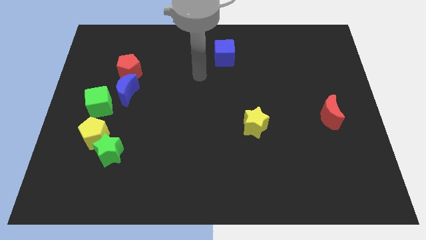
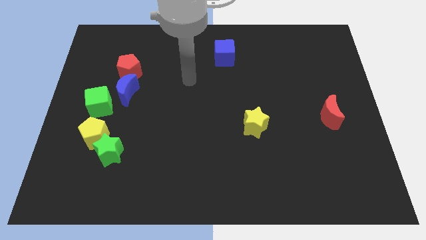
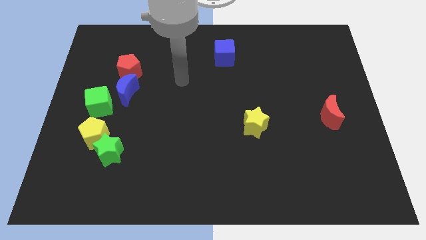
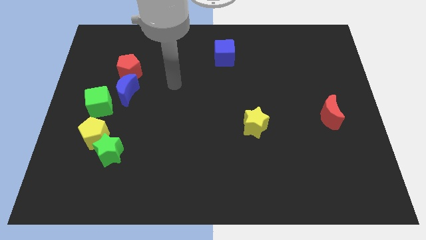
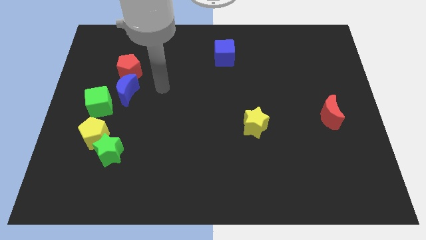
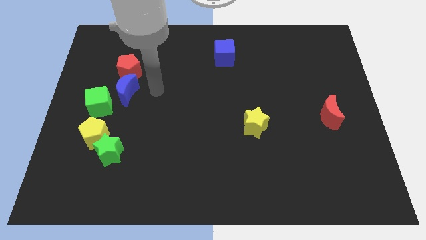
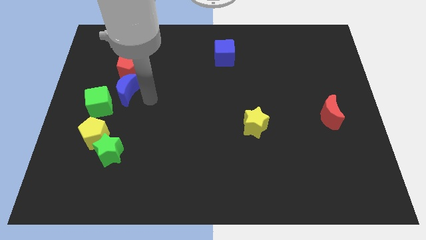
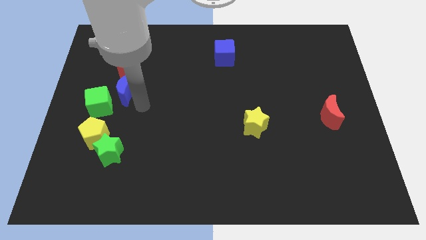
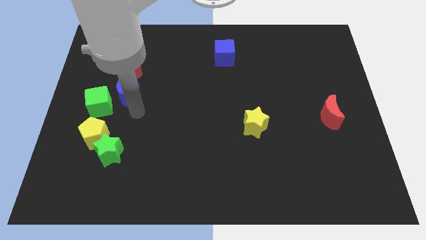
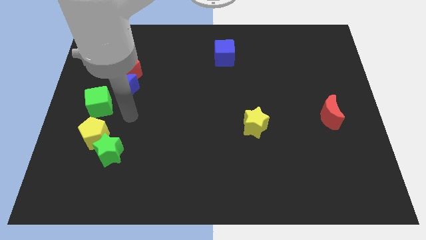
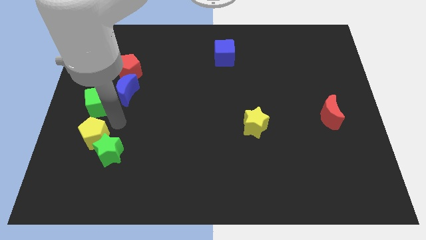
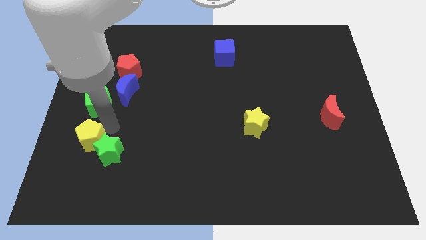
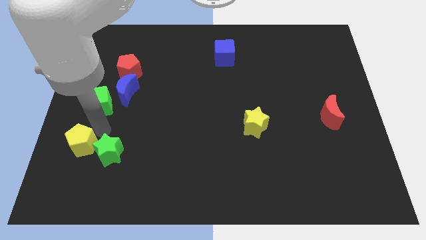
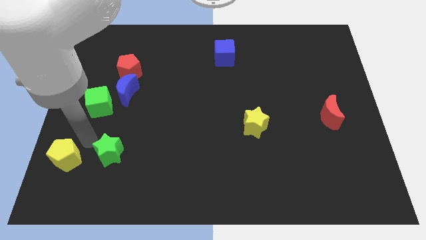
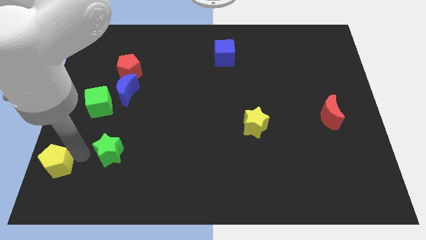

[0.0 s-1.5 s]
move the green star away from the yellow pentagon

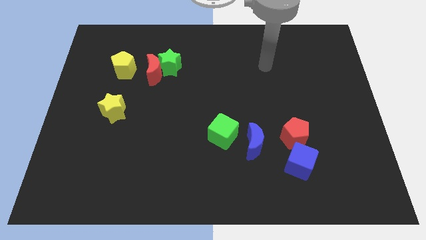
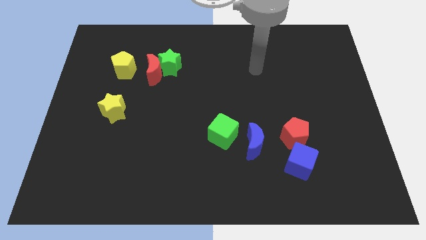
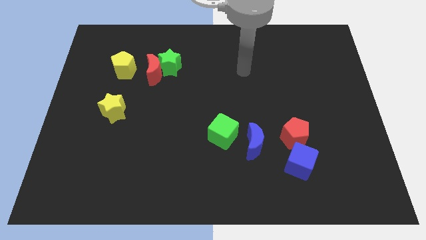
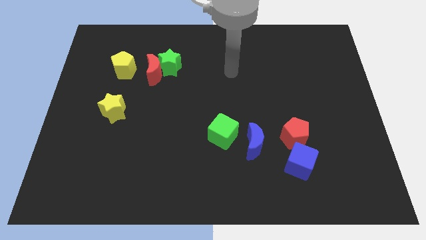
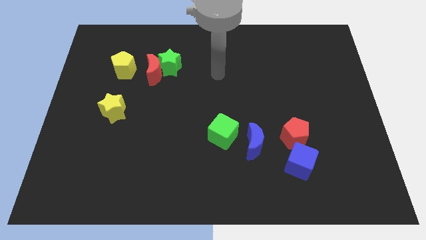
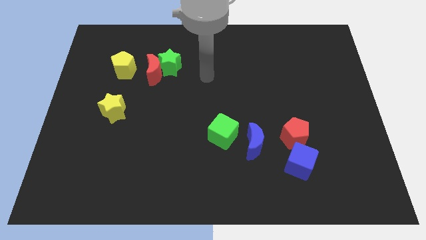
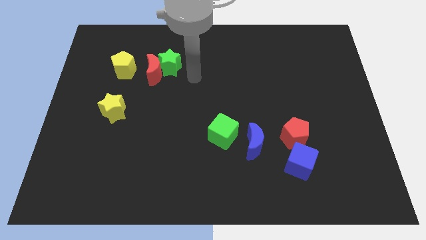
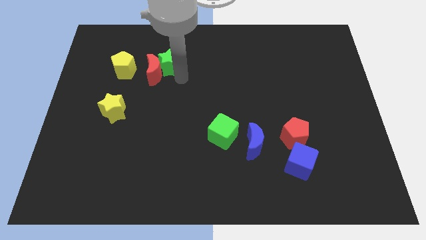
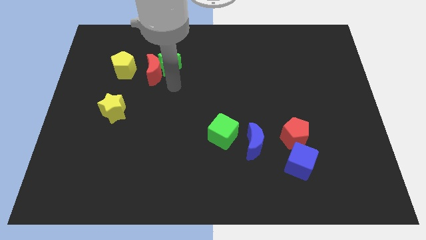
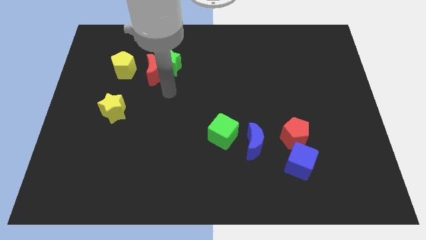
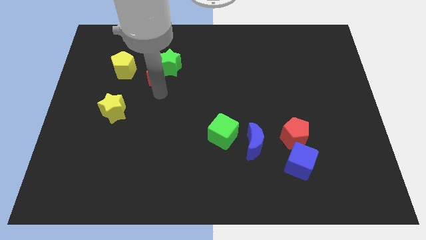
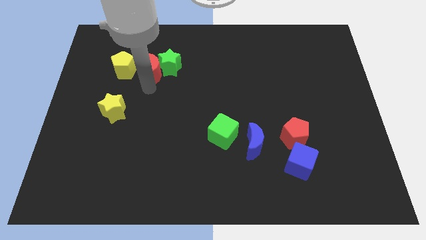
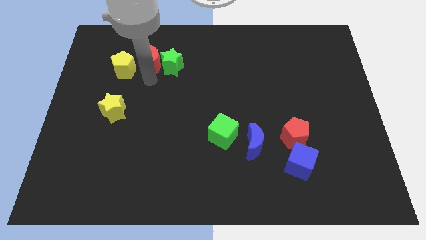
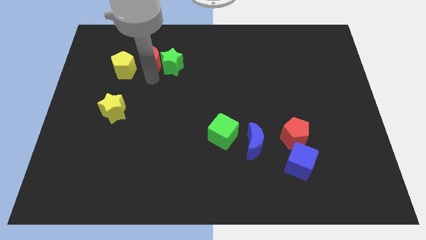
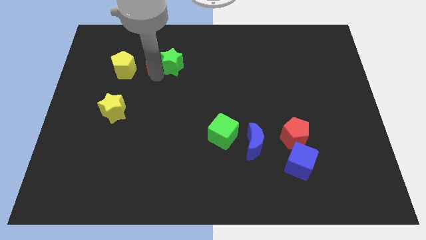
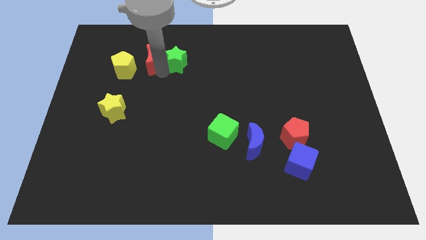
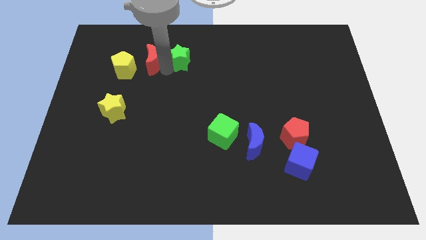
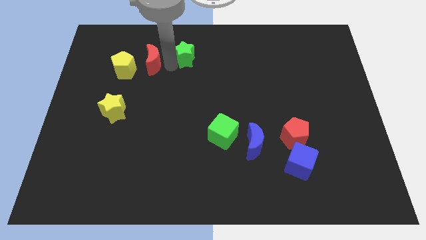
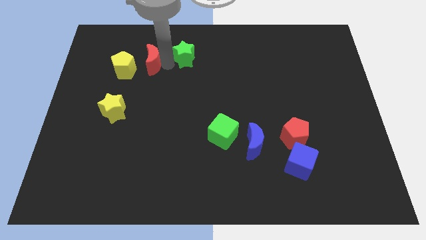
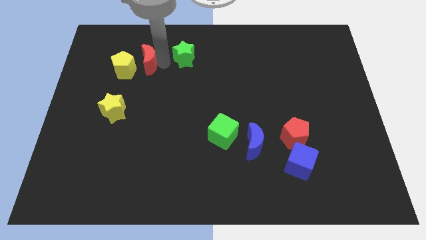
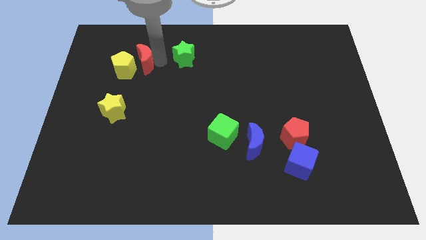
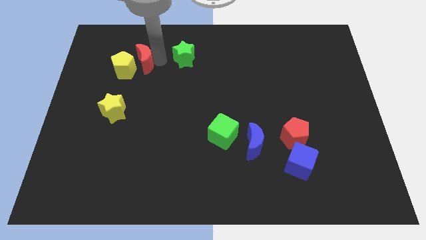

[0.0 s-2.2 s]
move the green star away from the red moon

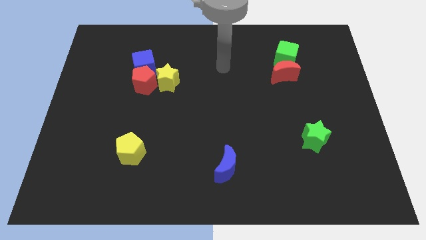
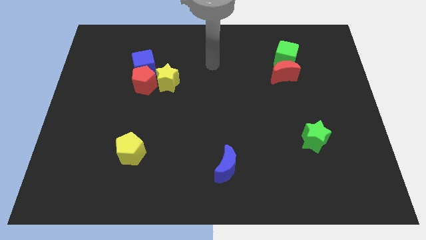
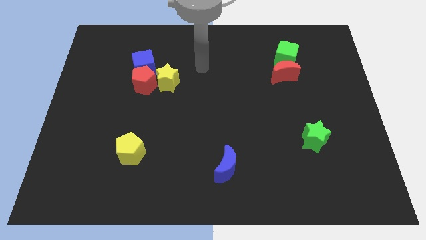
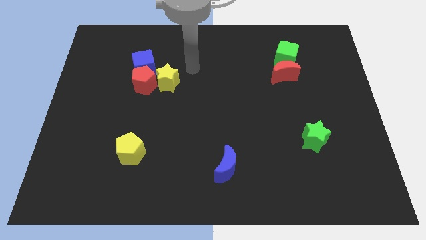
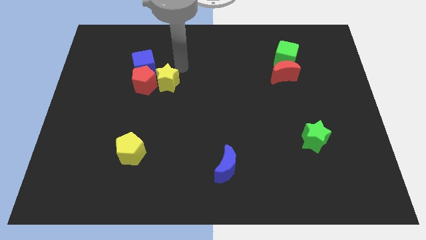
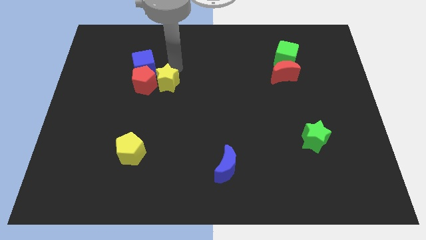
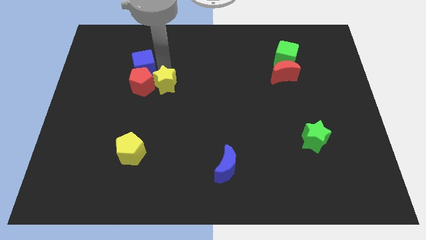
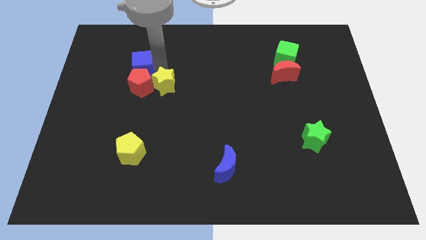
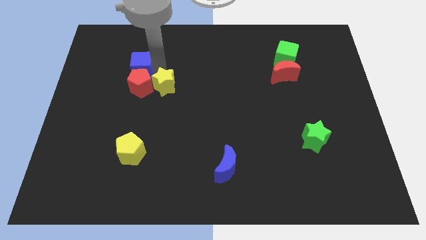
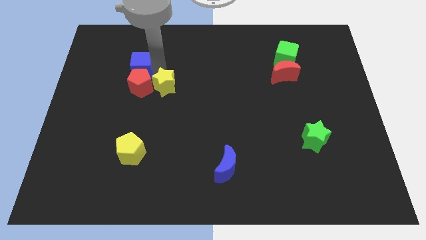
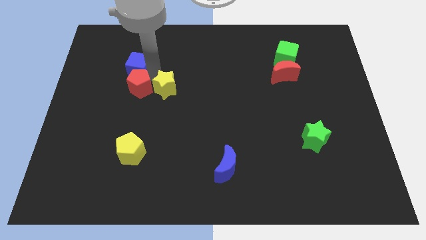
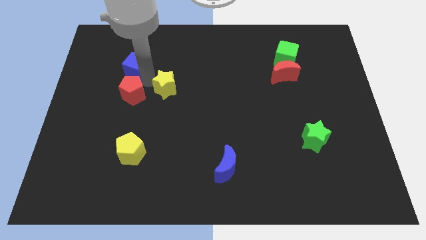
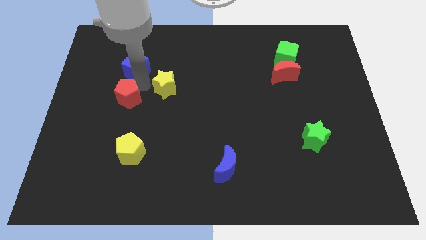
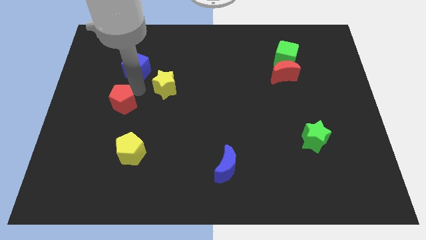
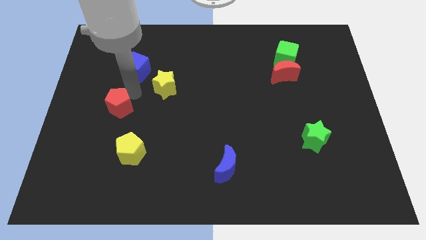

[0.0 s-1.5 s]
separate the red pentagon from the yellow star and blue cube

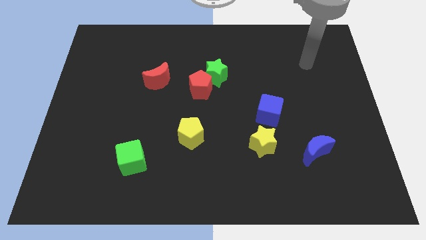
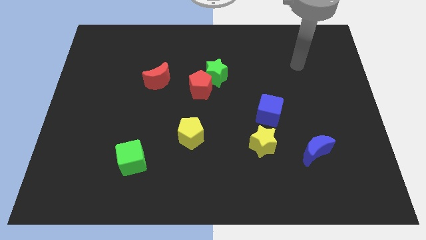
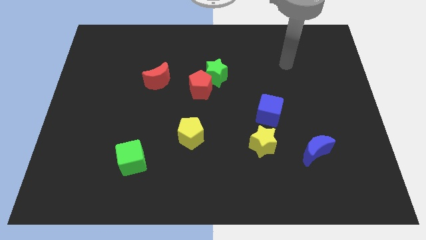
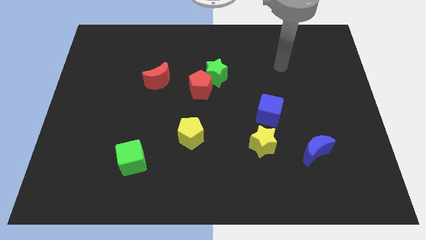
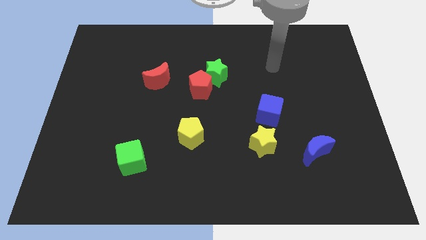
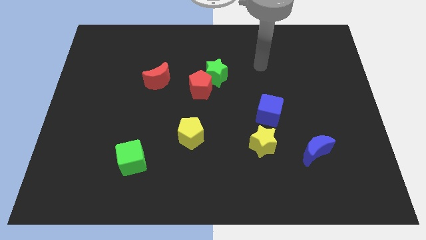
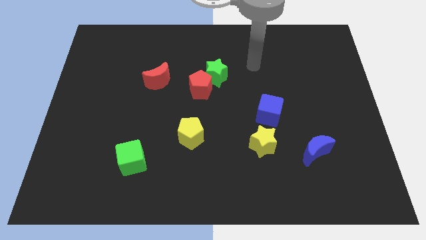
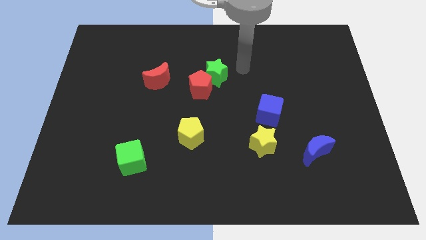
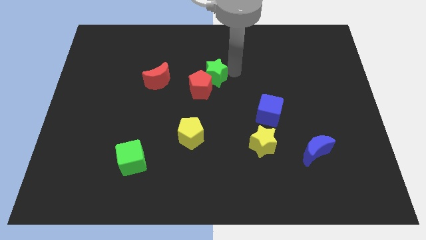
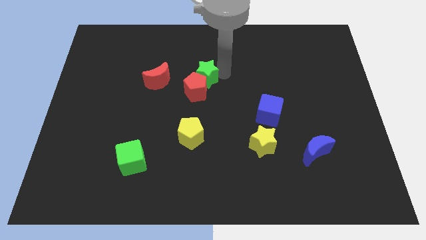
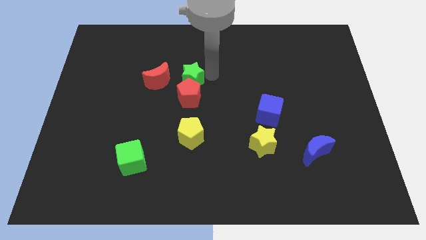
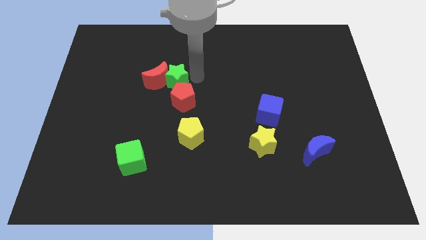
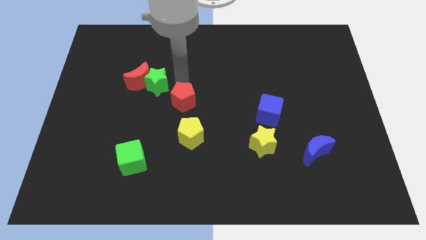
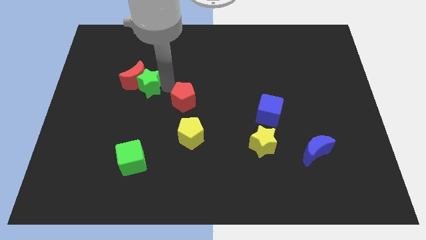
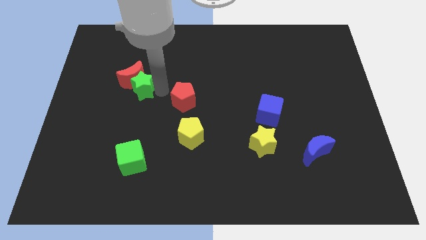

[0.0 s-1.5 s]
move the red pentagon away from the green star

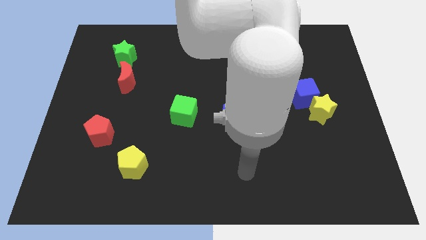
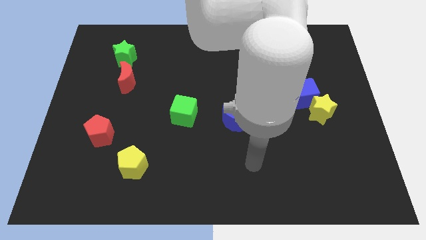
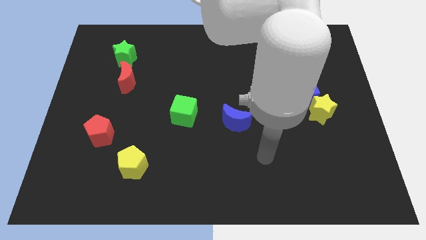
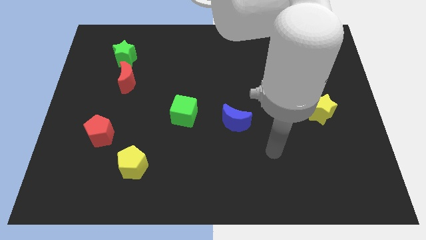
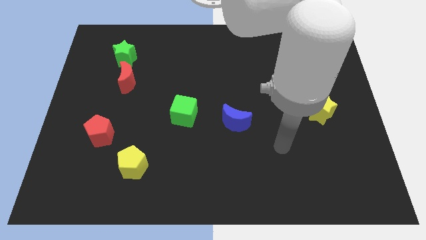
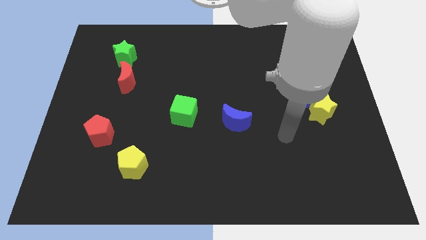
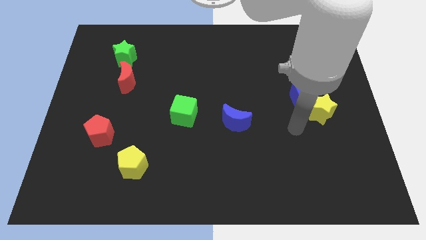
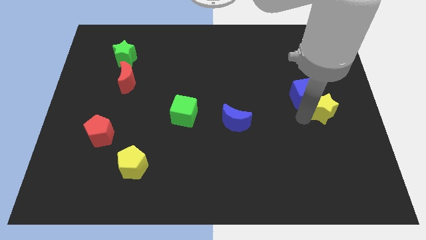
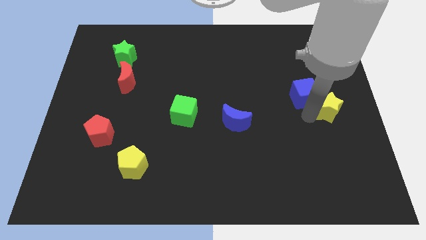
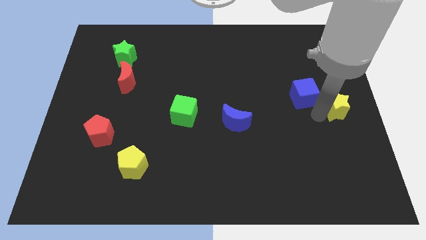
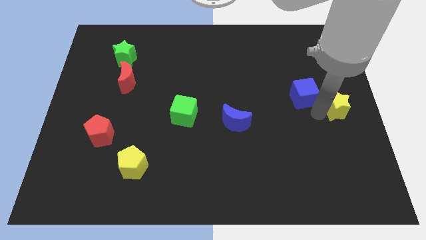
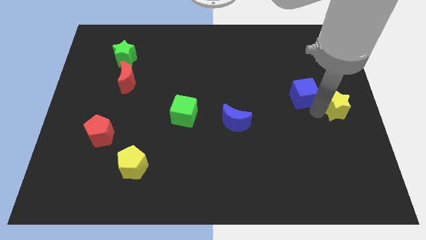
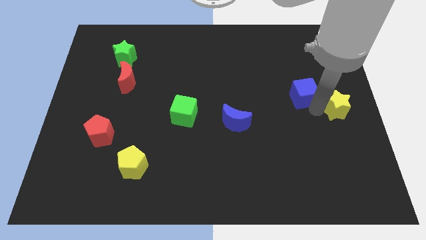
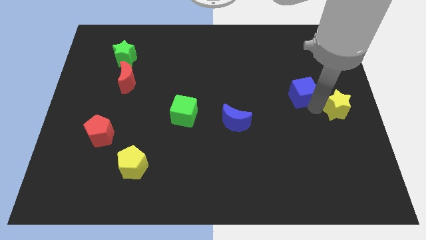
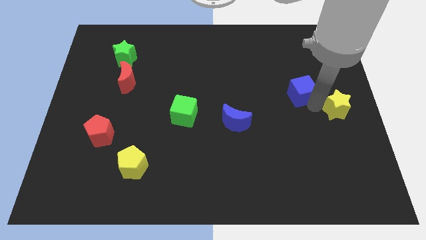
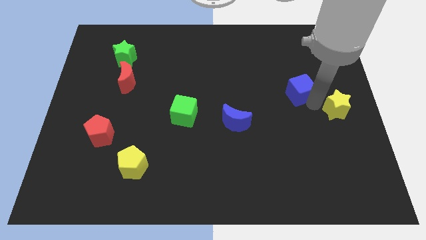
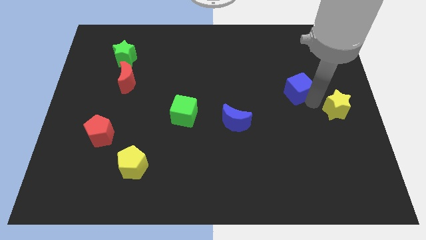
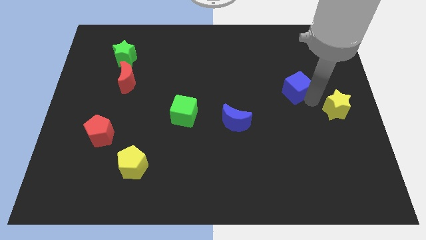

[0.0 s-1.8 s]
move the blue cube away from the yellow star

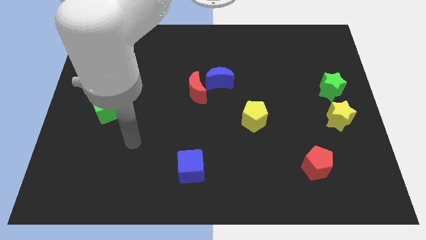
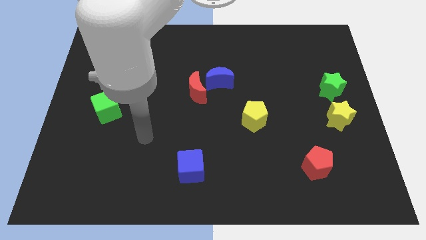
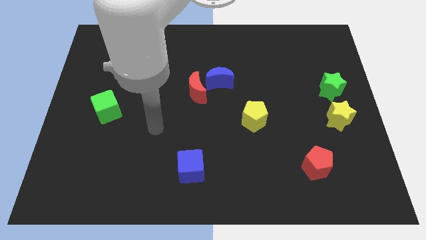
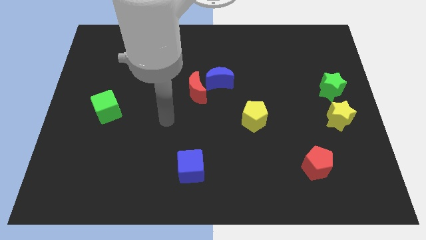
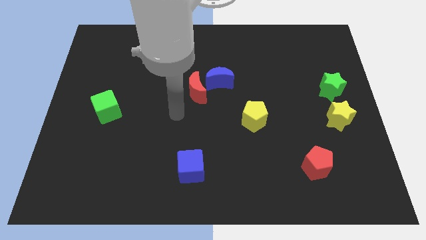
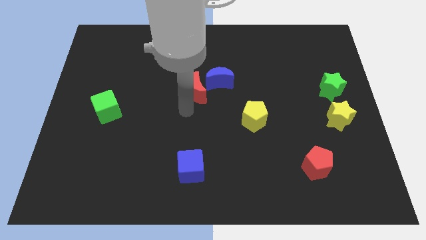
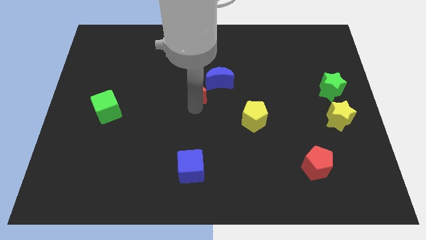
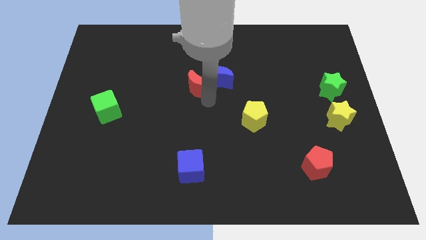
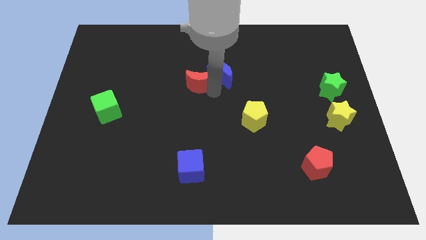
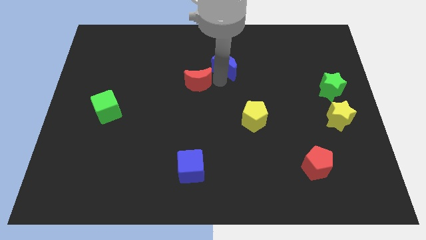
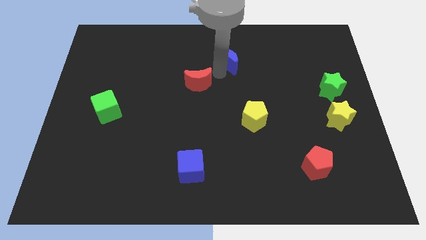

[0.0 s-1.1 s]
separate the red moon from the blue moon
